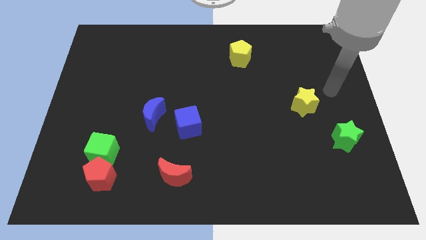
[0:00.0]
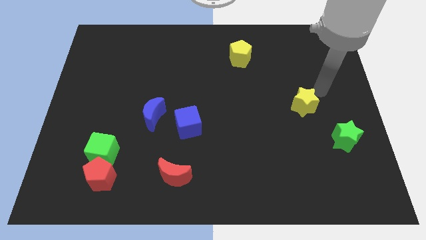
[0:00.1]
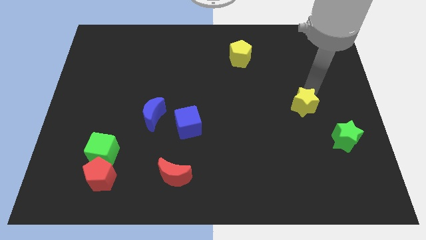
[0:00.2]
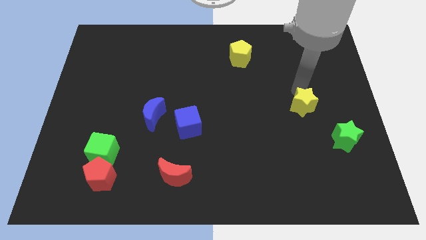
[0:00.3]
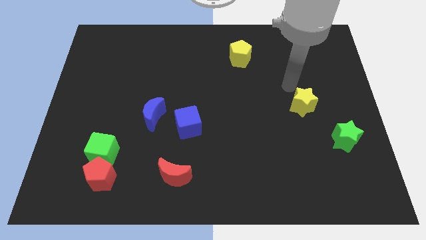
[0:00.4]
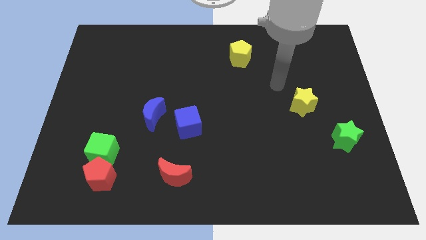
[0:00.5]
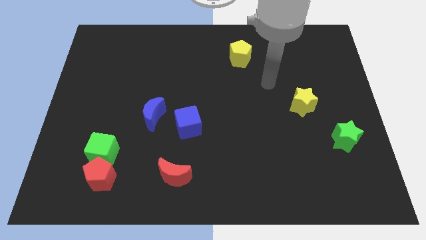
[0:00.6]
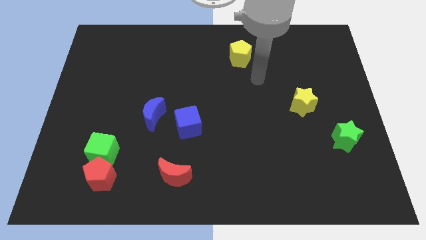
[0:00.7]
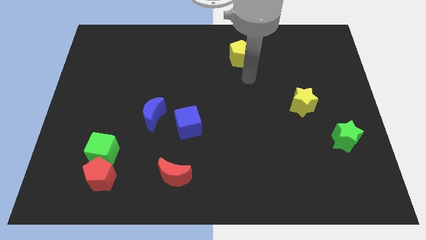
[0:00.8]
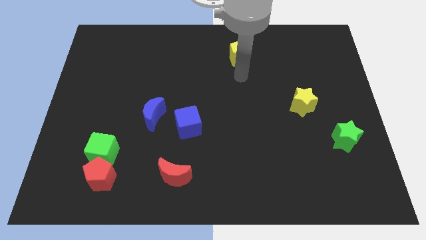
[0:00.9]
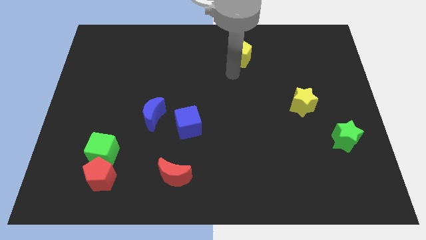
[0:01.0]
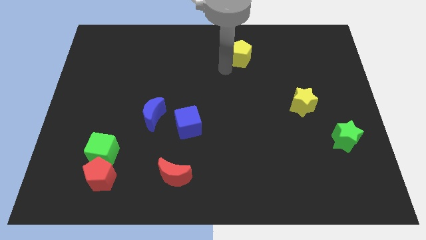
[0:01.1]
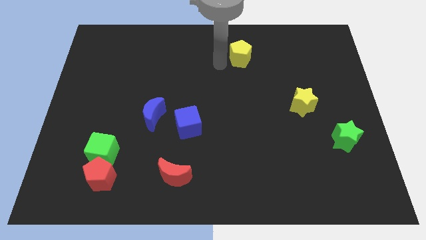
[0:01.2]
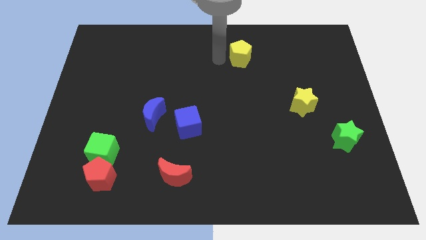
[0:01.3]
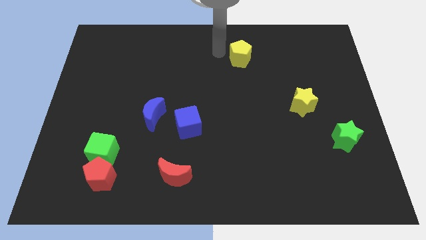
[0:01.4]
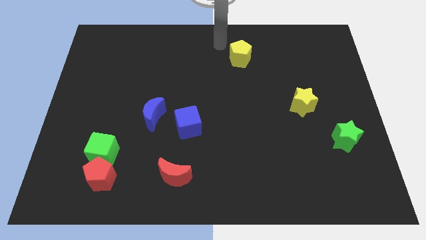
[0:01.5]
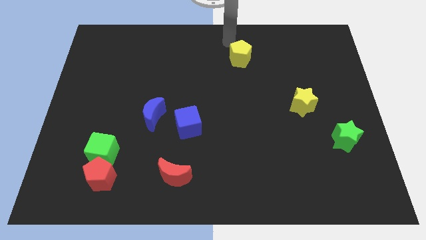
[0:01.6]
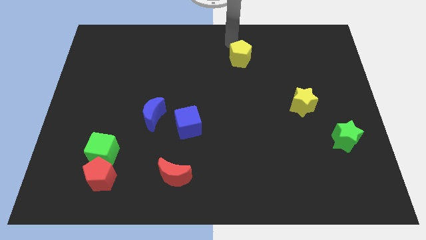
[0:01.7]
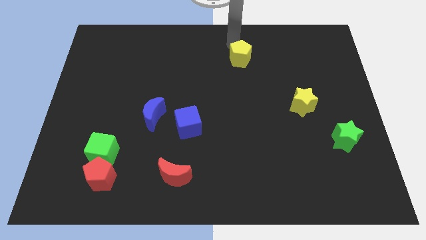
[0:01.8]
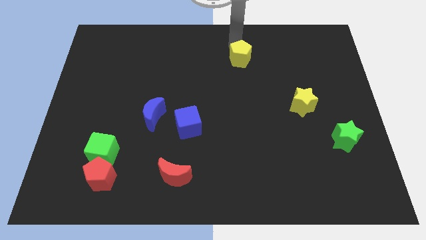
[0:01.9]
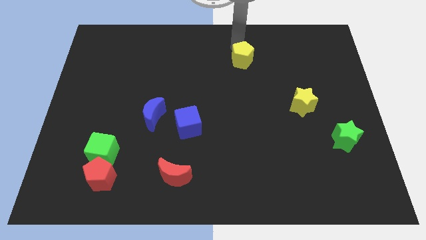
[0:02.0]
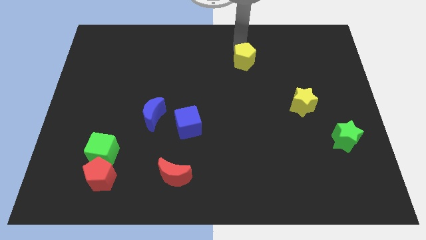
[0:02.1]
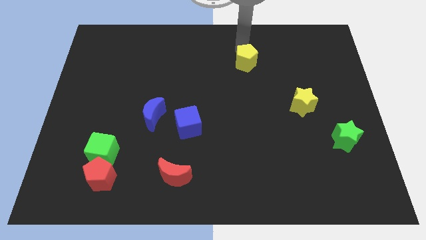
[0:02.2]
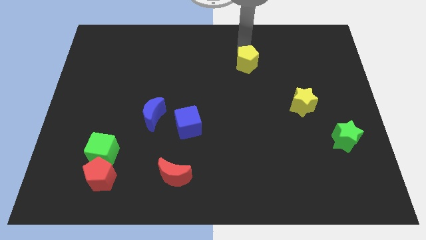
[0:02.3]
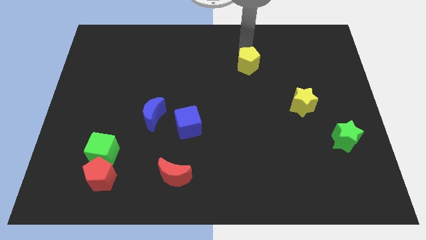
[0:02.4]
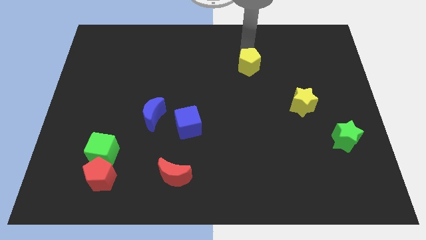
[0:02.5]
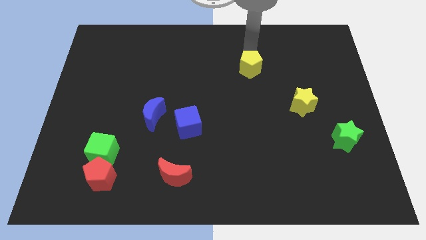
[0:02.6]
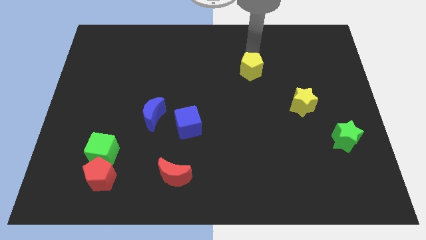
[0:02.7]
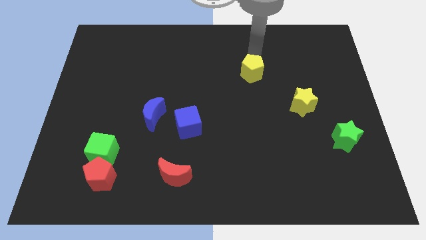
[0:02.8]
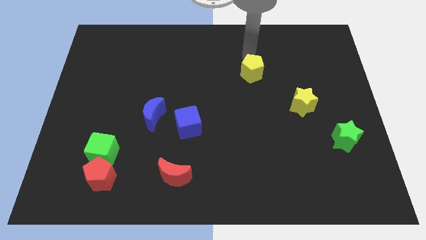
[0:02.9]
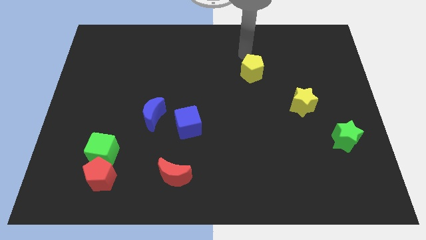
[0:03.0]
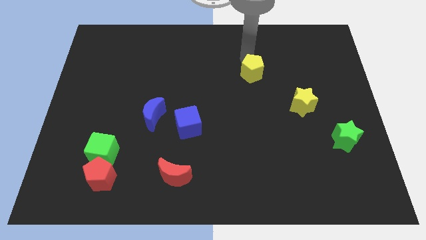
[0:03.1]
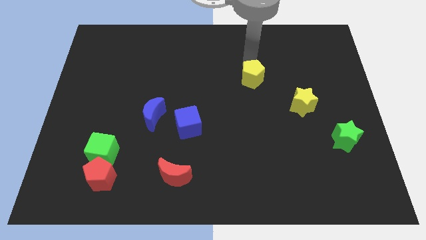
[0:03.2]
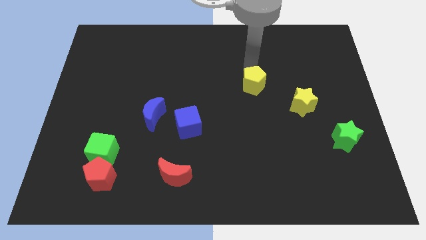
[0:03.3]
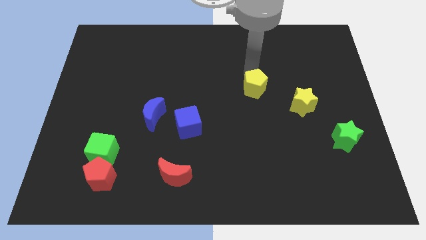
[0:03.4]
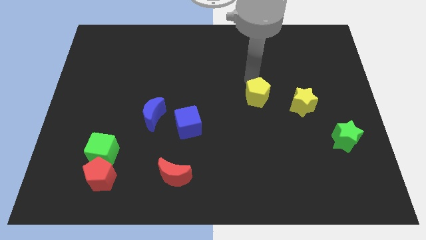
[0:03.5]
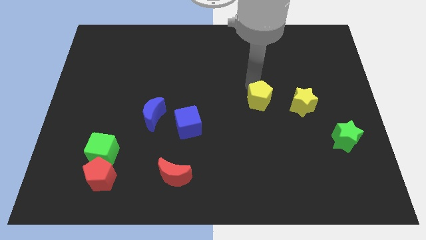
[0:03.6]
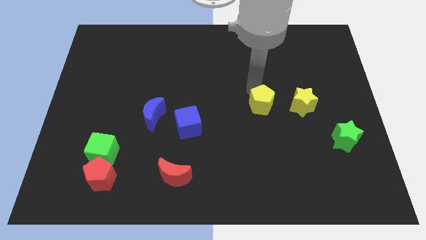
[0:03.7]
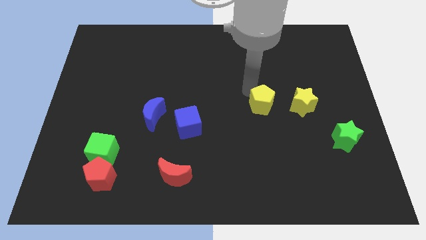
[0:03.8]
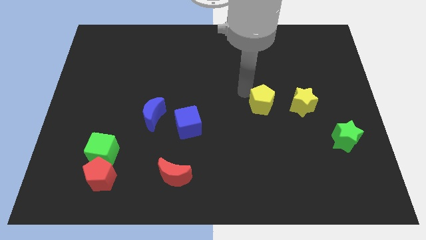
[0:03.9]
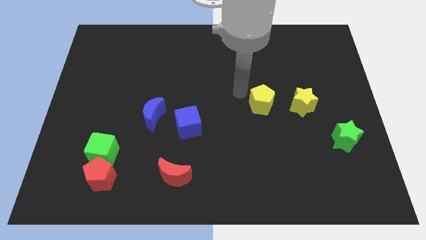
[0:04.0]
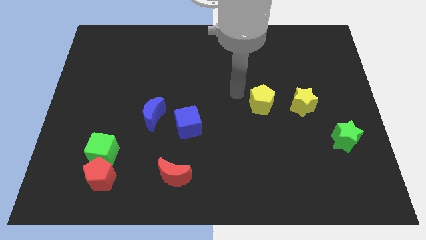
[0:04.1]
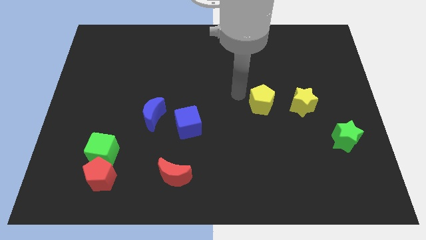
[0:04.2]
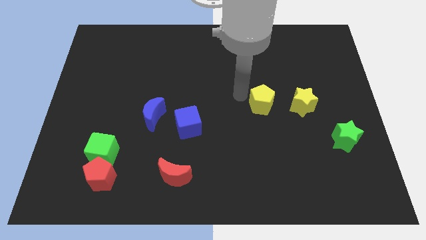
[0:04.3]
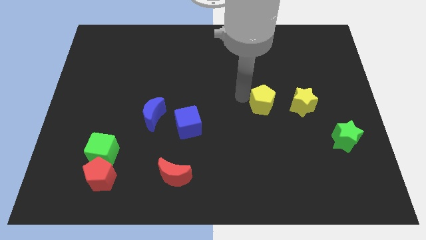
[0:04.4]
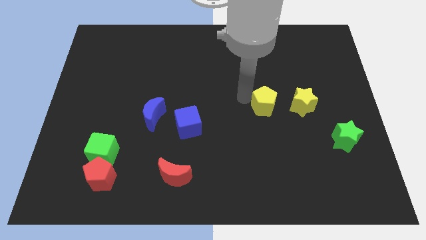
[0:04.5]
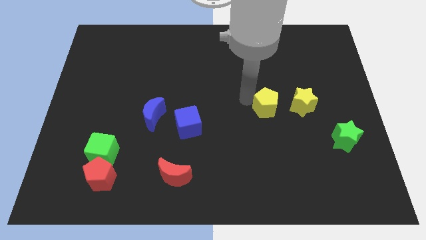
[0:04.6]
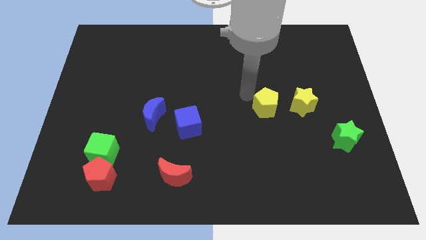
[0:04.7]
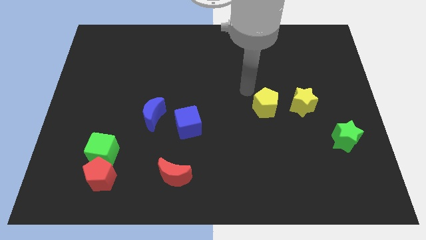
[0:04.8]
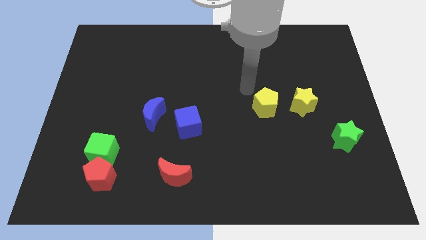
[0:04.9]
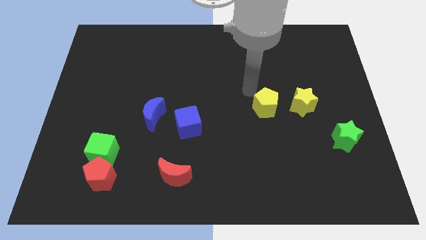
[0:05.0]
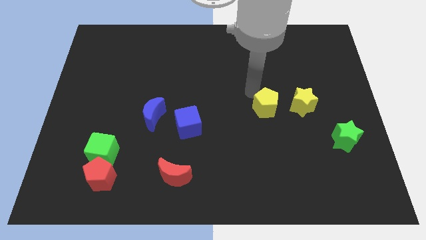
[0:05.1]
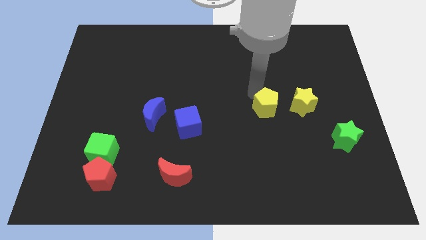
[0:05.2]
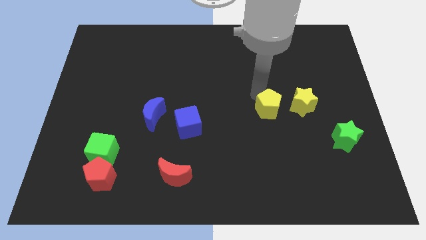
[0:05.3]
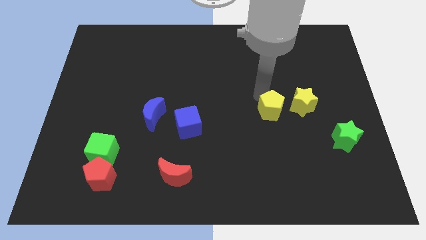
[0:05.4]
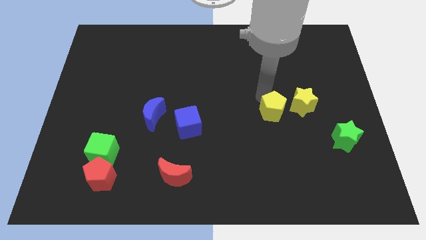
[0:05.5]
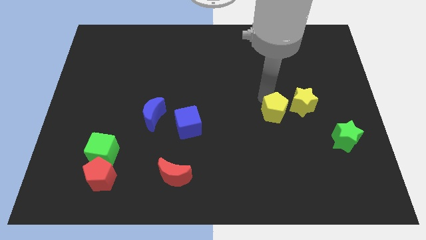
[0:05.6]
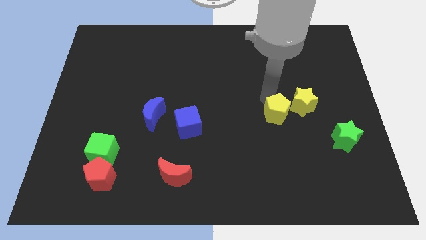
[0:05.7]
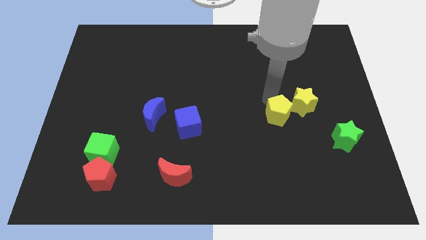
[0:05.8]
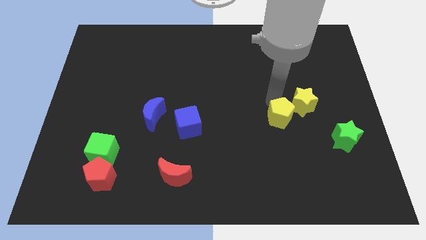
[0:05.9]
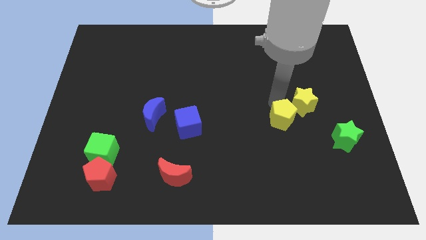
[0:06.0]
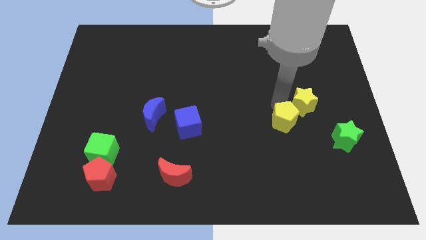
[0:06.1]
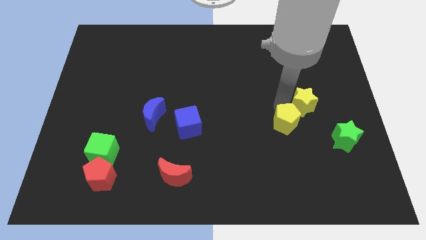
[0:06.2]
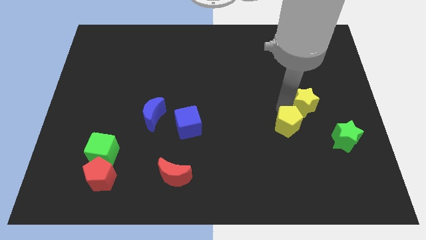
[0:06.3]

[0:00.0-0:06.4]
push the yellow pentagon left of the green star

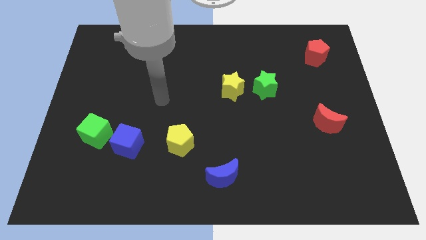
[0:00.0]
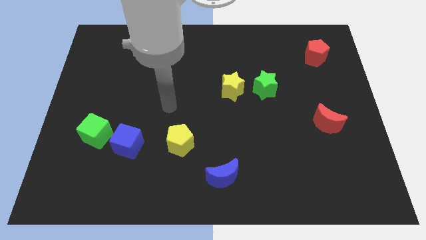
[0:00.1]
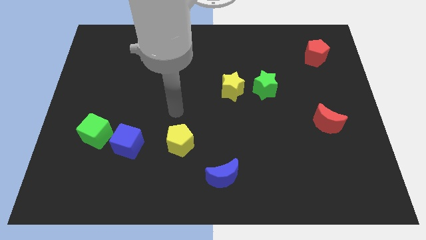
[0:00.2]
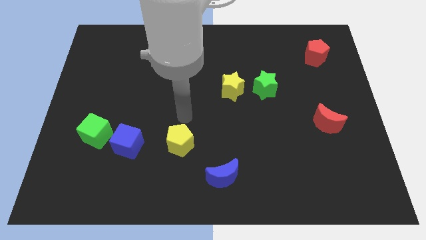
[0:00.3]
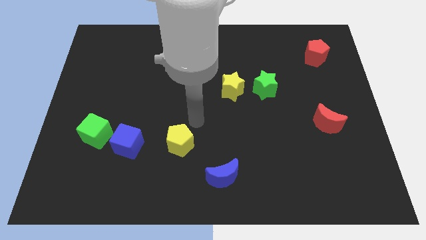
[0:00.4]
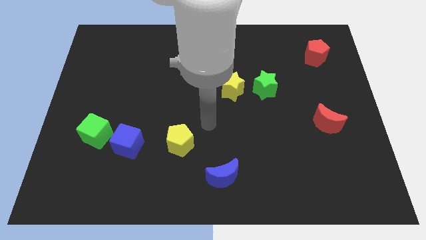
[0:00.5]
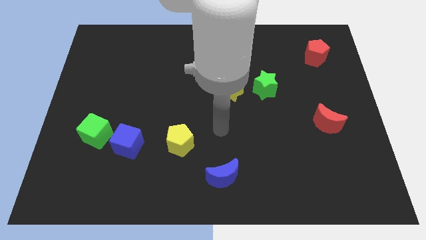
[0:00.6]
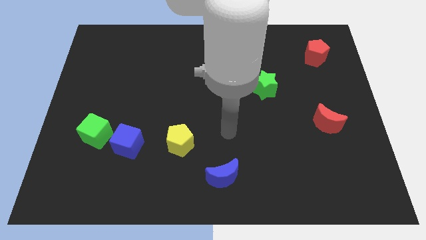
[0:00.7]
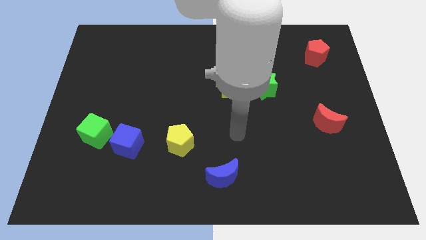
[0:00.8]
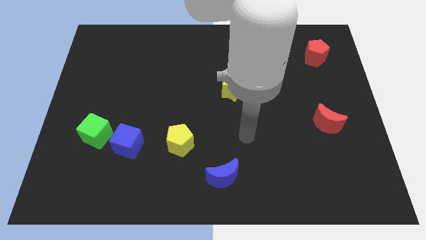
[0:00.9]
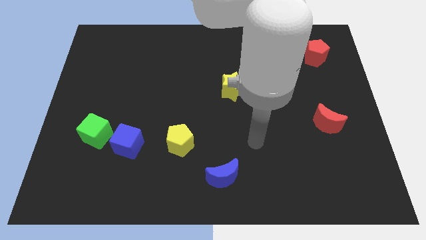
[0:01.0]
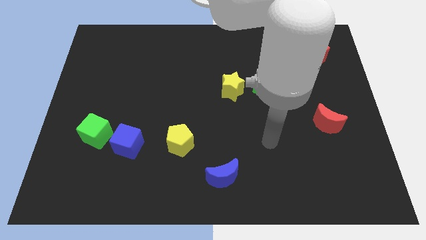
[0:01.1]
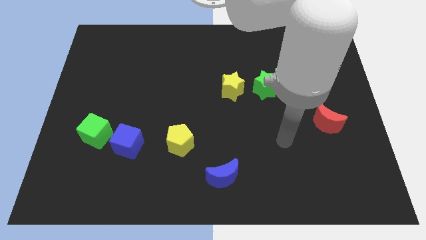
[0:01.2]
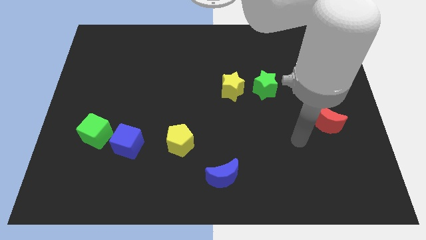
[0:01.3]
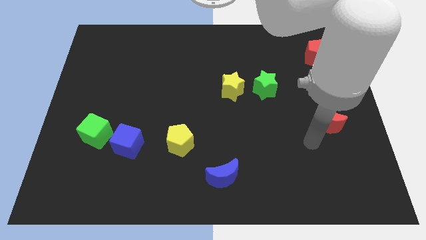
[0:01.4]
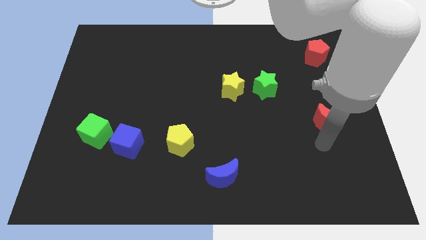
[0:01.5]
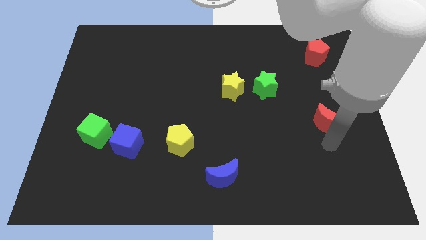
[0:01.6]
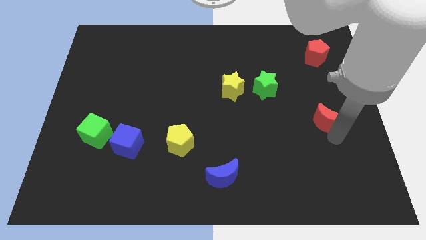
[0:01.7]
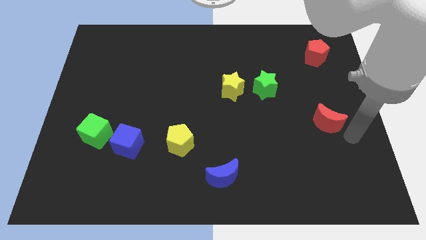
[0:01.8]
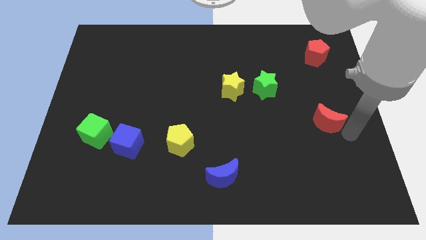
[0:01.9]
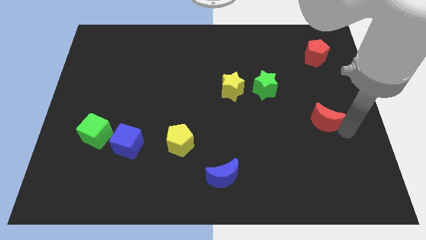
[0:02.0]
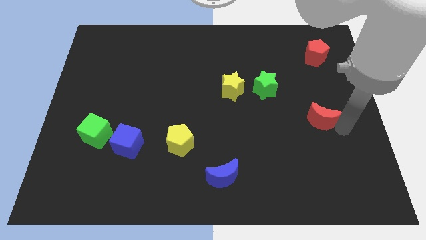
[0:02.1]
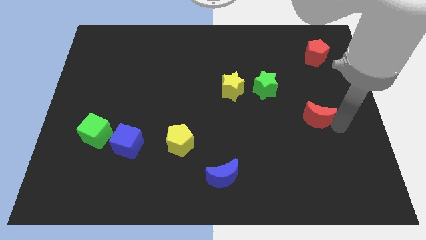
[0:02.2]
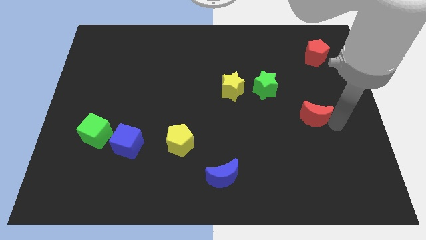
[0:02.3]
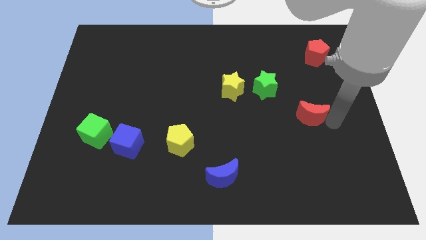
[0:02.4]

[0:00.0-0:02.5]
move the red moon to the bottom right side of the green star
